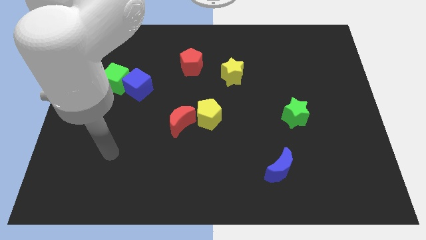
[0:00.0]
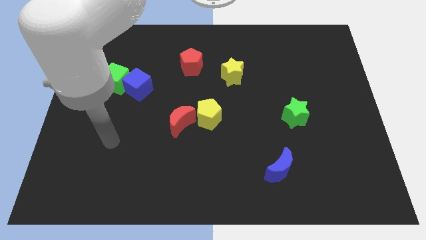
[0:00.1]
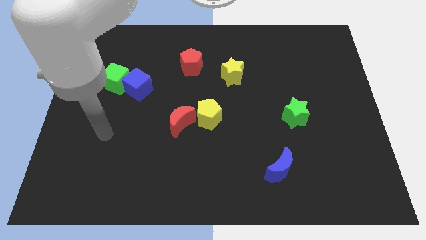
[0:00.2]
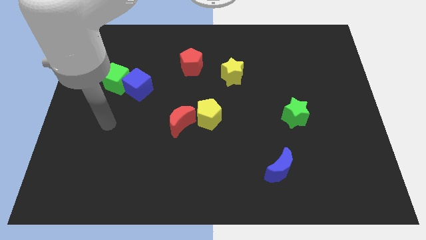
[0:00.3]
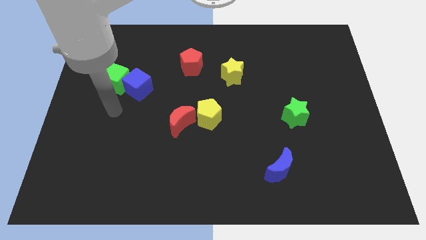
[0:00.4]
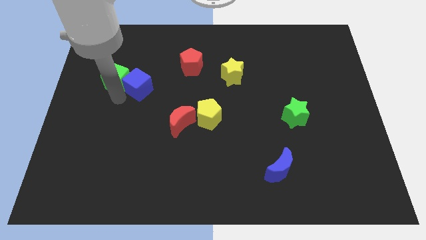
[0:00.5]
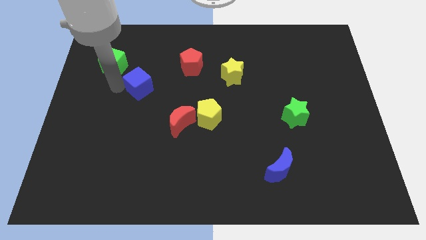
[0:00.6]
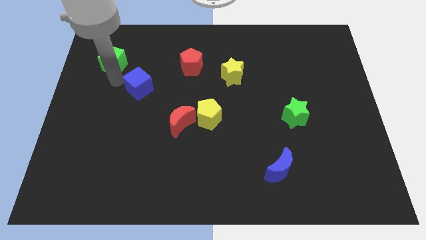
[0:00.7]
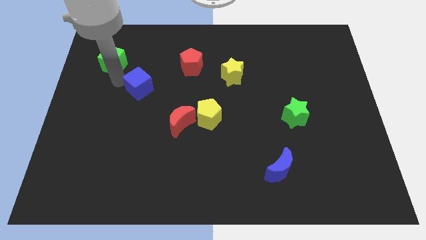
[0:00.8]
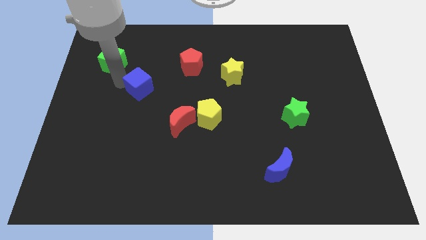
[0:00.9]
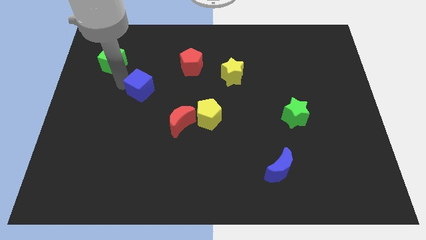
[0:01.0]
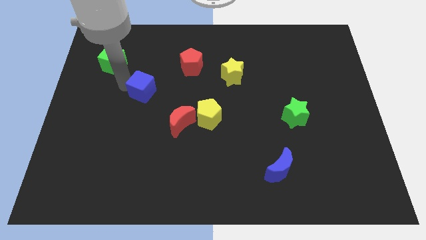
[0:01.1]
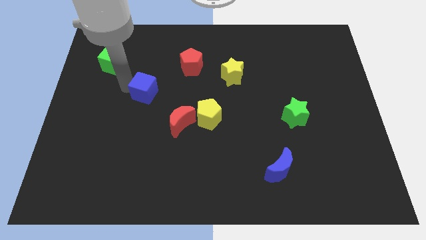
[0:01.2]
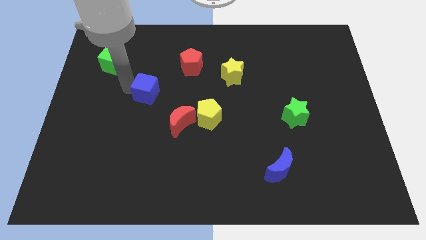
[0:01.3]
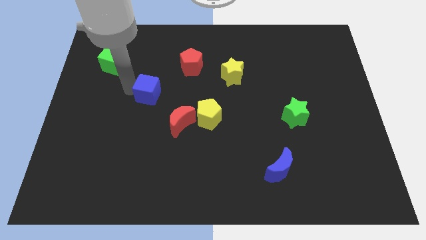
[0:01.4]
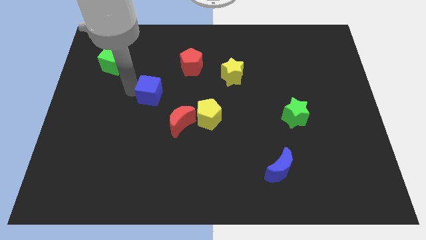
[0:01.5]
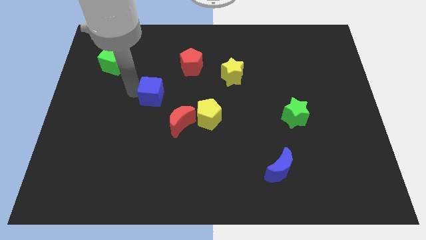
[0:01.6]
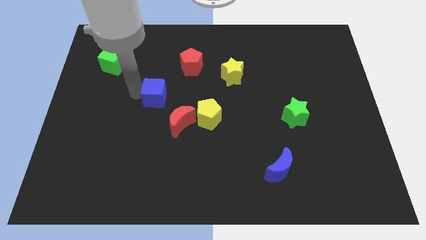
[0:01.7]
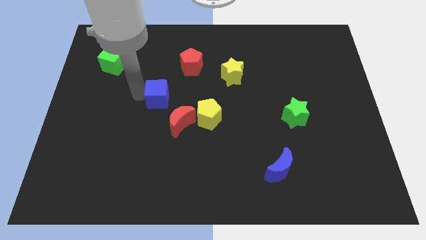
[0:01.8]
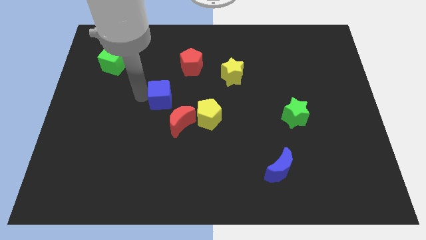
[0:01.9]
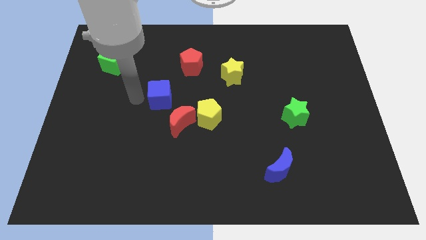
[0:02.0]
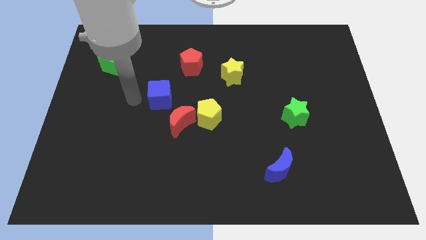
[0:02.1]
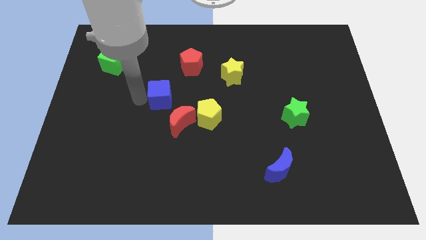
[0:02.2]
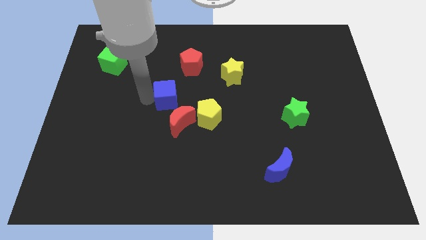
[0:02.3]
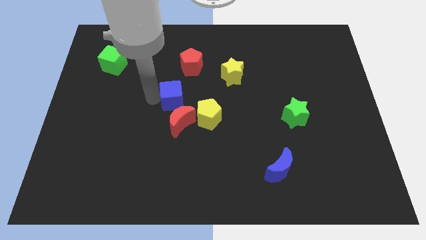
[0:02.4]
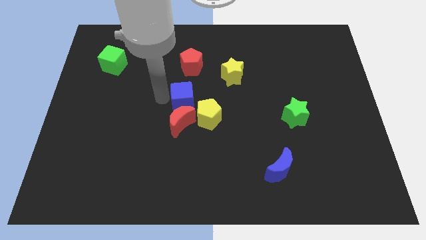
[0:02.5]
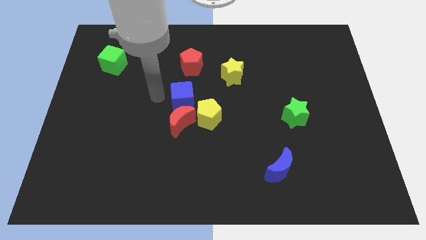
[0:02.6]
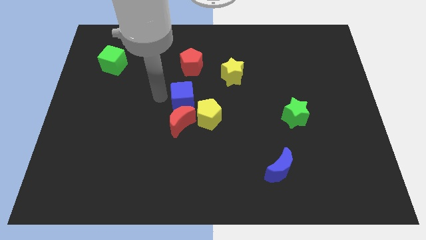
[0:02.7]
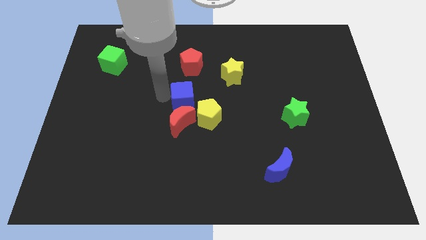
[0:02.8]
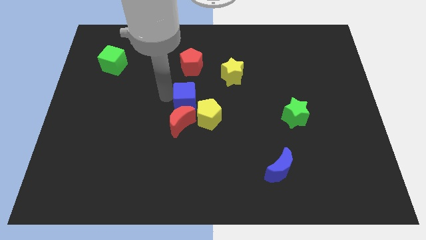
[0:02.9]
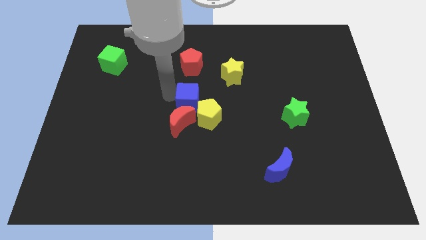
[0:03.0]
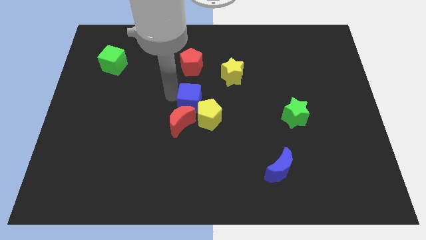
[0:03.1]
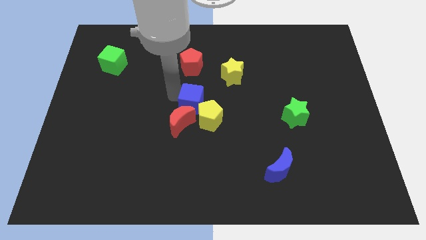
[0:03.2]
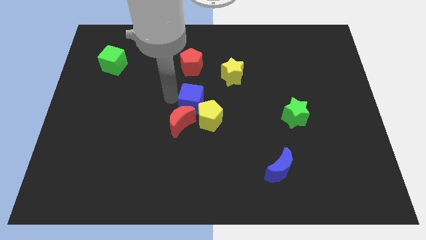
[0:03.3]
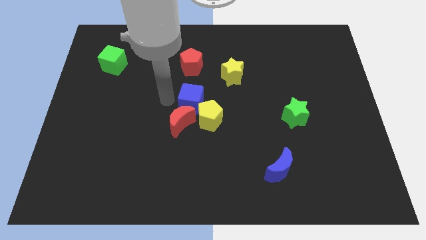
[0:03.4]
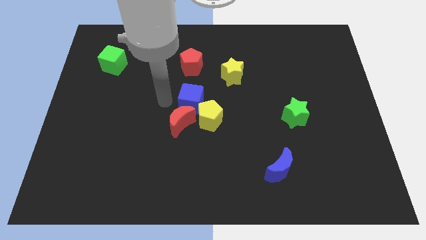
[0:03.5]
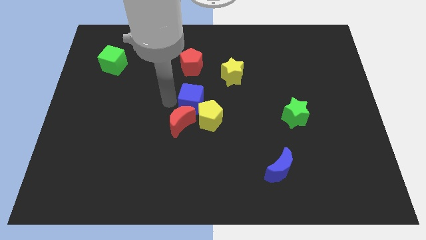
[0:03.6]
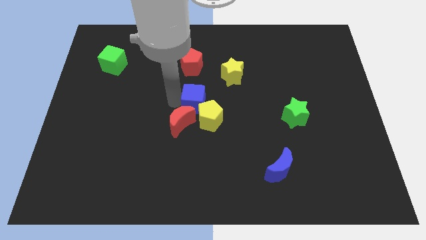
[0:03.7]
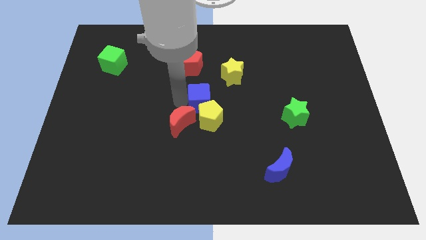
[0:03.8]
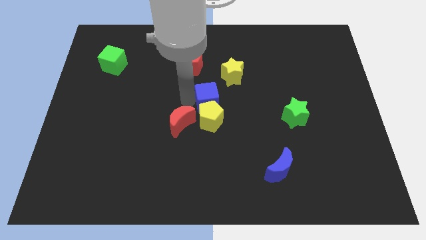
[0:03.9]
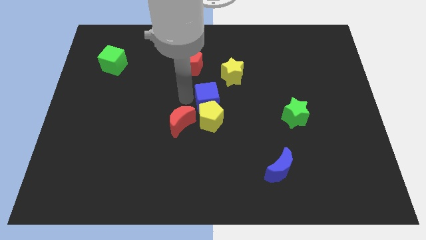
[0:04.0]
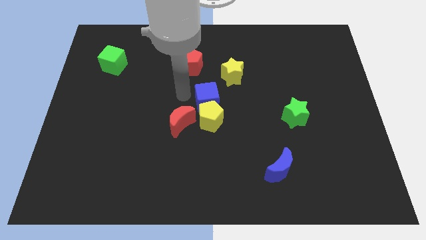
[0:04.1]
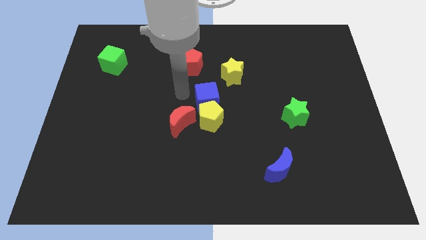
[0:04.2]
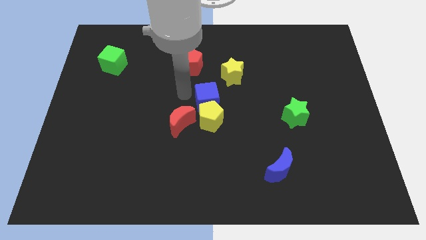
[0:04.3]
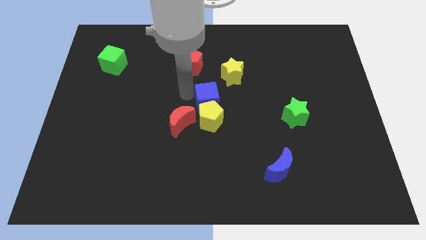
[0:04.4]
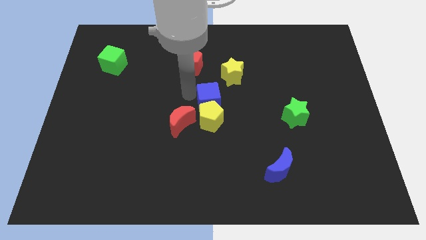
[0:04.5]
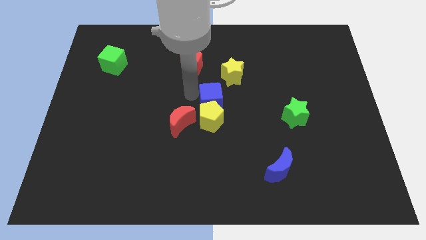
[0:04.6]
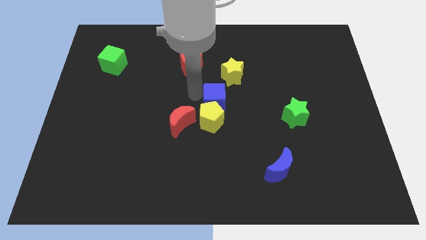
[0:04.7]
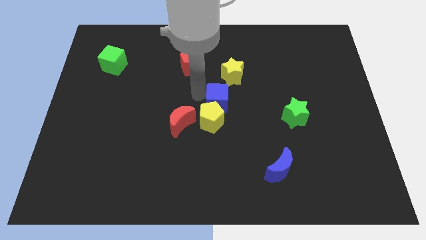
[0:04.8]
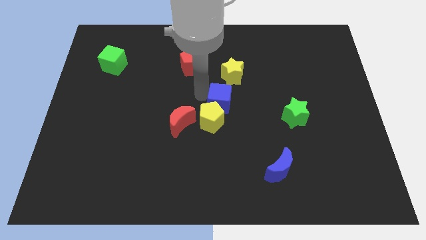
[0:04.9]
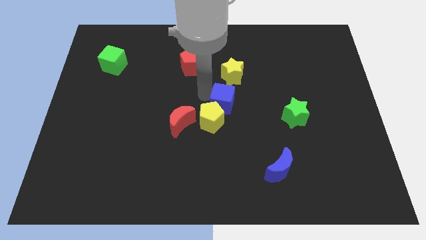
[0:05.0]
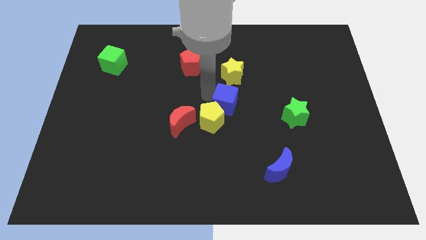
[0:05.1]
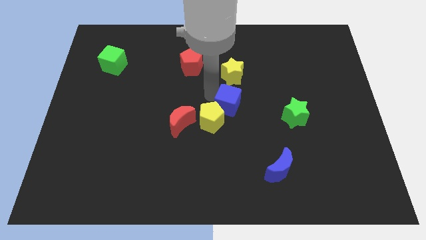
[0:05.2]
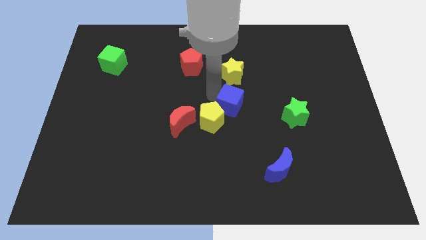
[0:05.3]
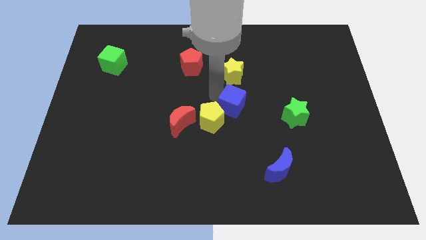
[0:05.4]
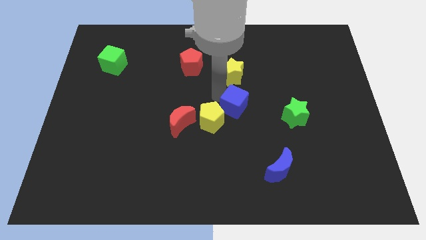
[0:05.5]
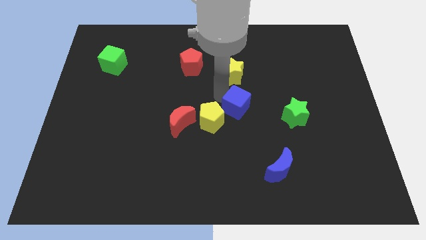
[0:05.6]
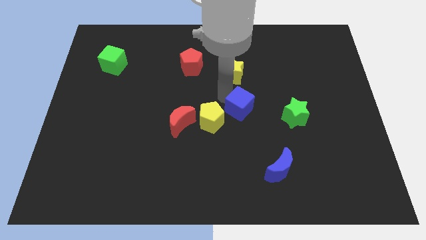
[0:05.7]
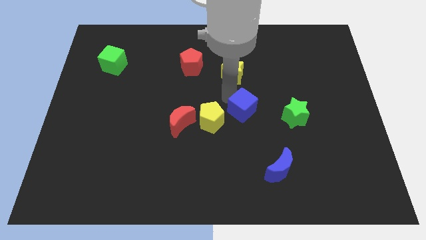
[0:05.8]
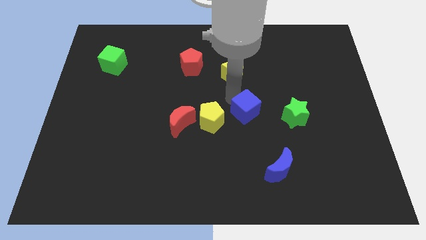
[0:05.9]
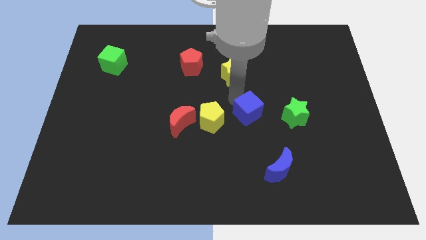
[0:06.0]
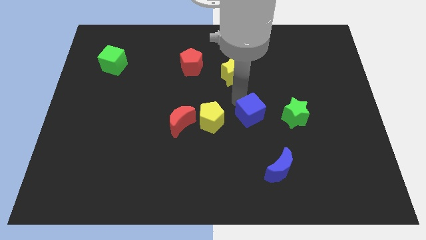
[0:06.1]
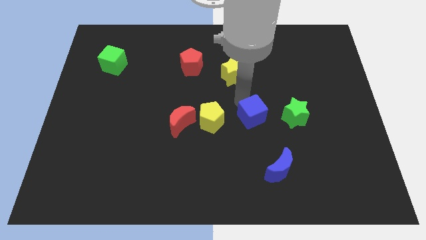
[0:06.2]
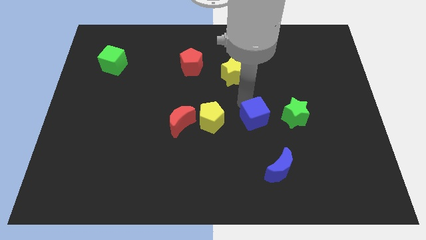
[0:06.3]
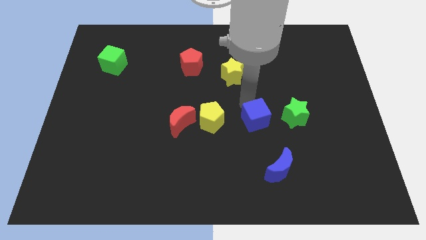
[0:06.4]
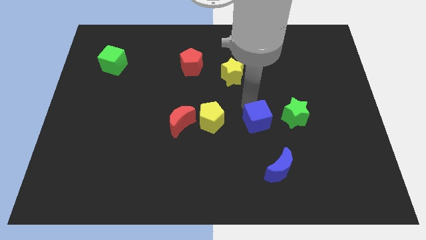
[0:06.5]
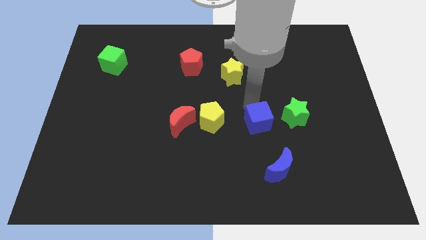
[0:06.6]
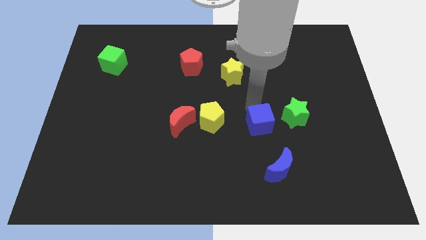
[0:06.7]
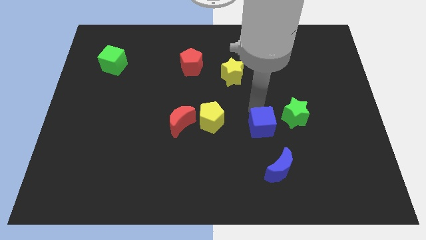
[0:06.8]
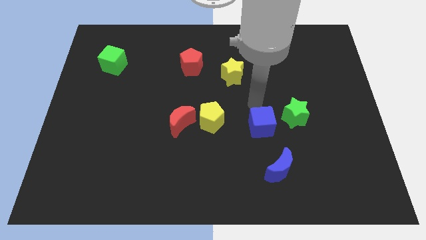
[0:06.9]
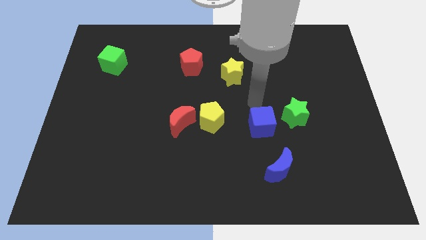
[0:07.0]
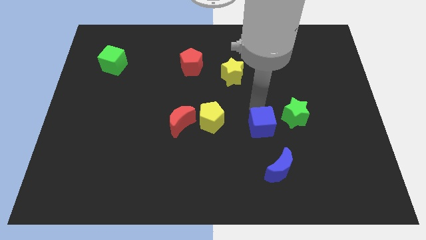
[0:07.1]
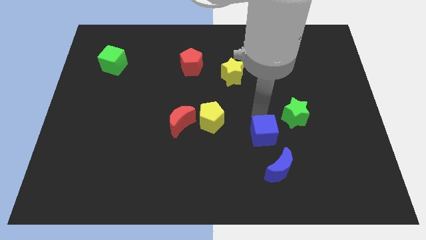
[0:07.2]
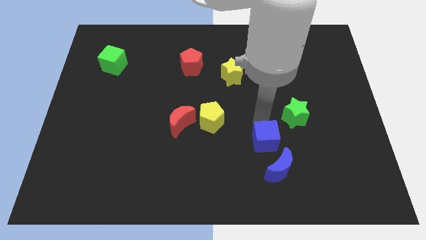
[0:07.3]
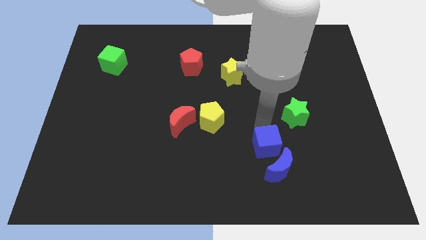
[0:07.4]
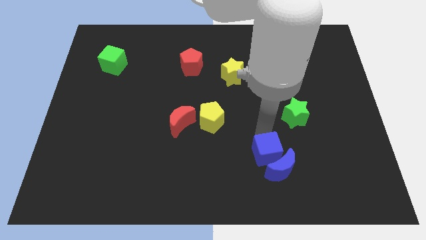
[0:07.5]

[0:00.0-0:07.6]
slide the blue cube close to the blue moon
